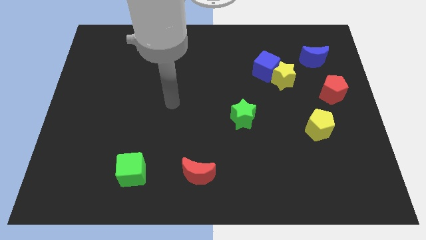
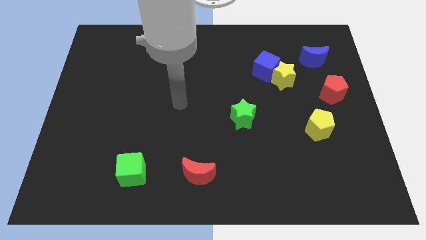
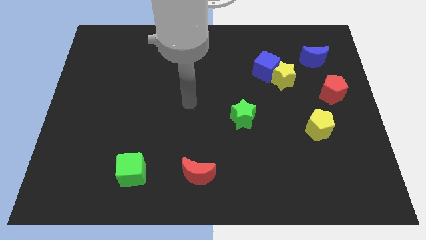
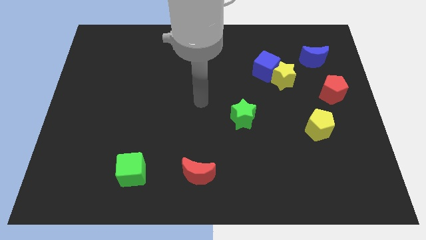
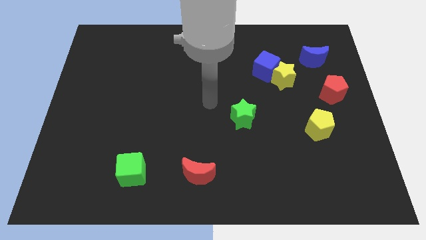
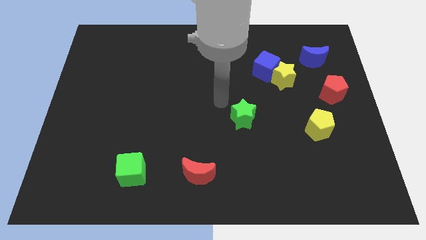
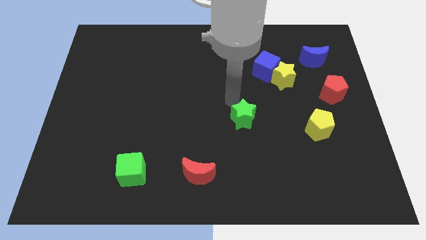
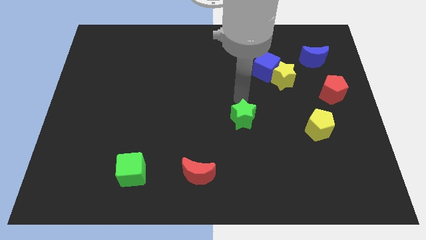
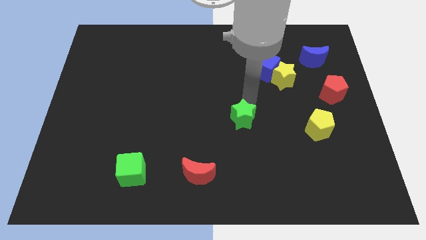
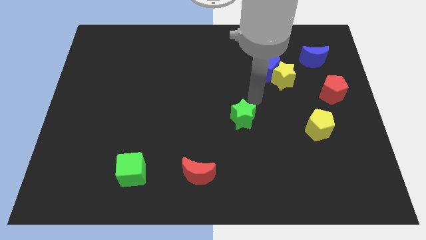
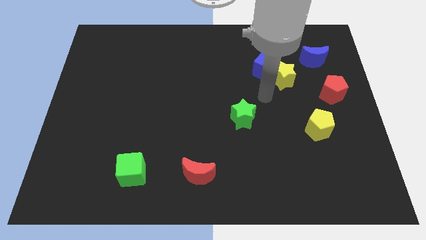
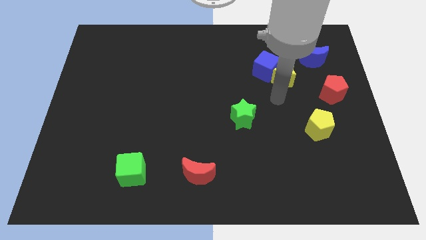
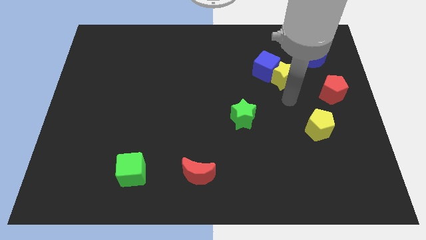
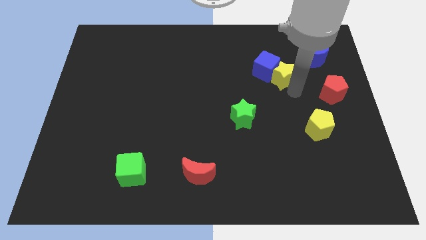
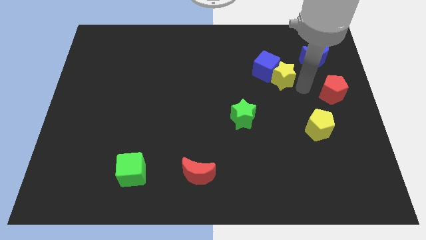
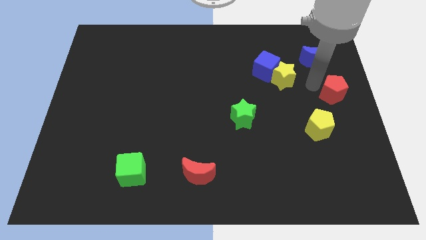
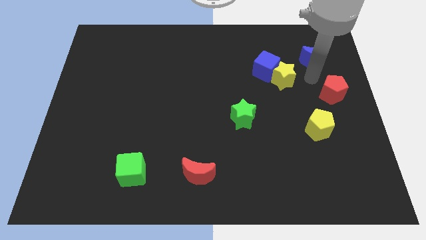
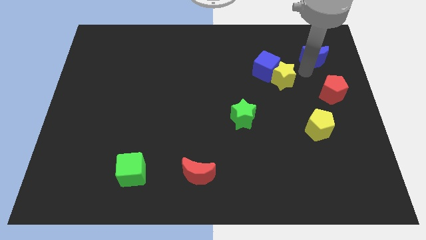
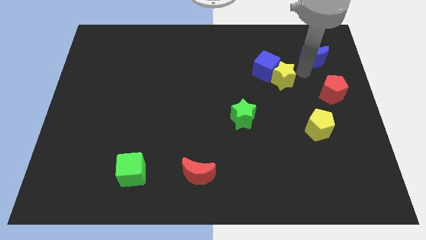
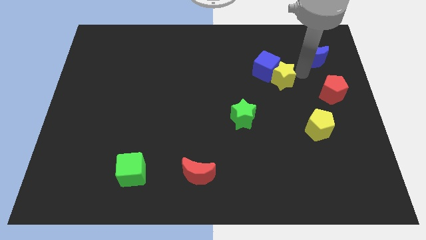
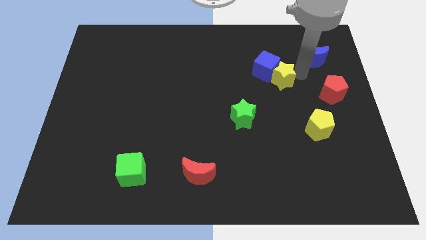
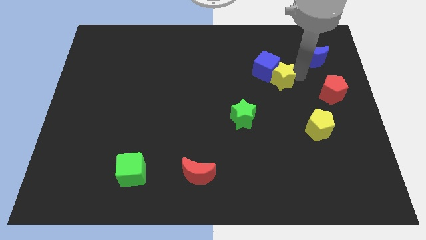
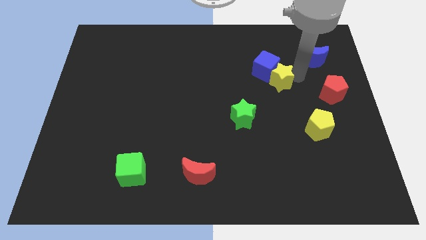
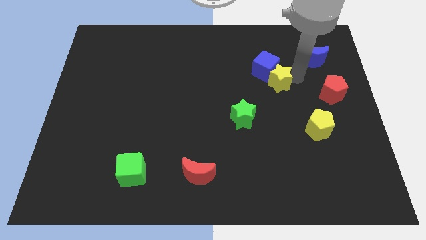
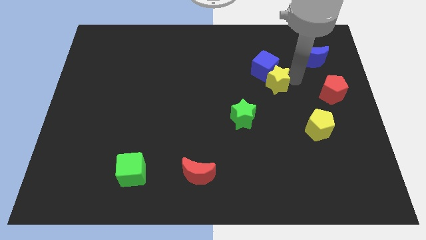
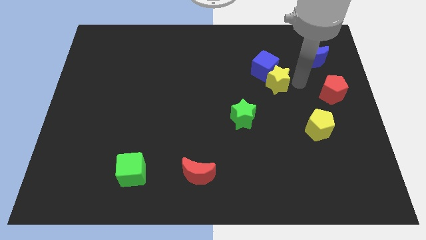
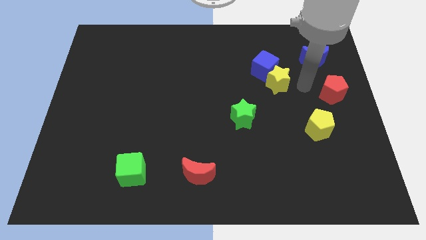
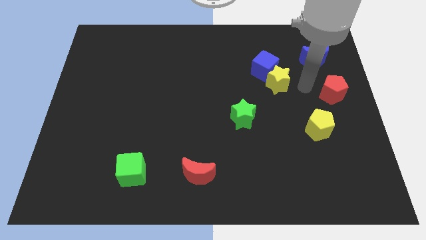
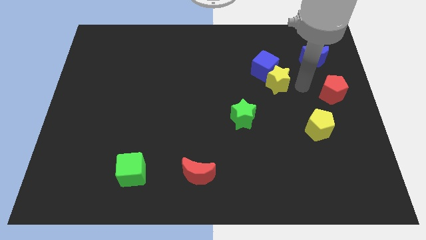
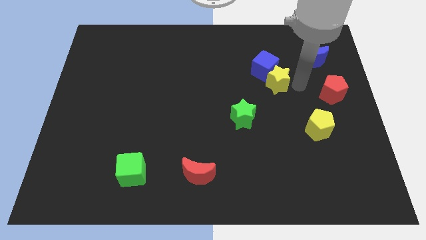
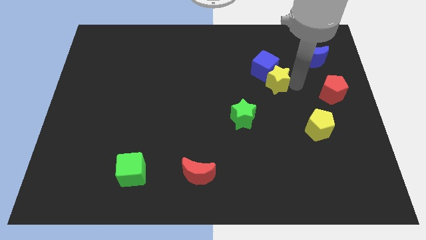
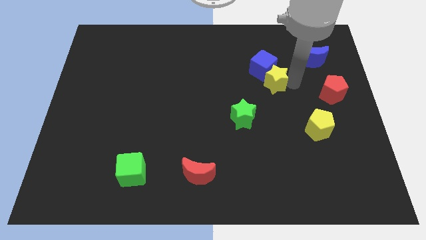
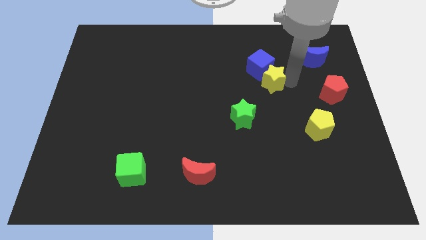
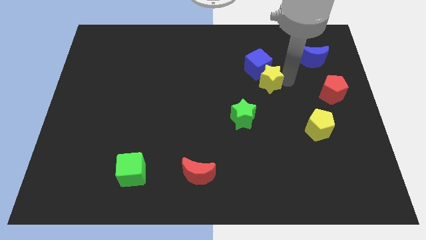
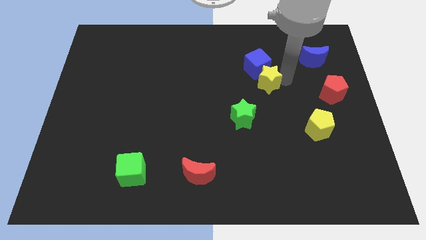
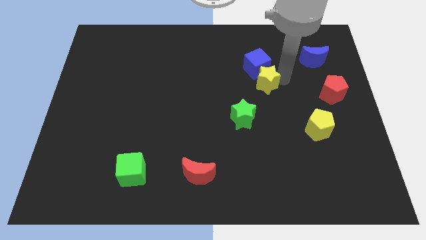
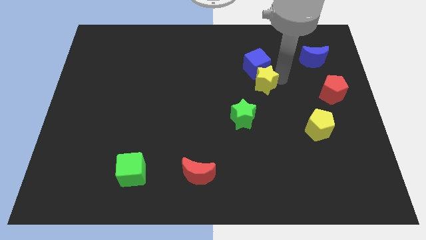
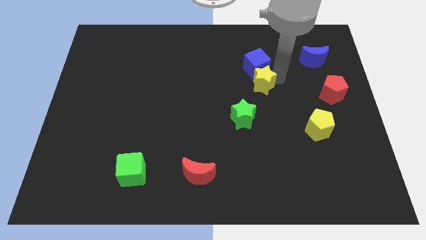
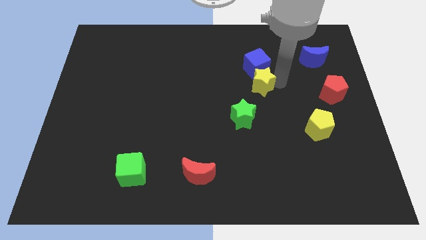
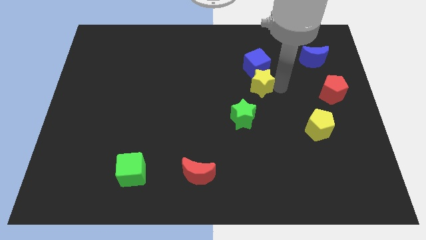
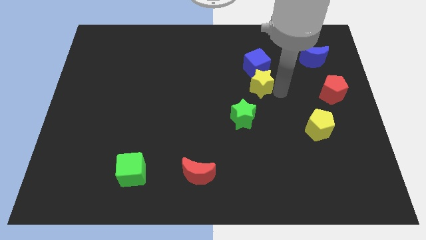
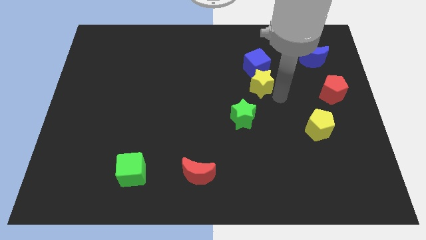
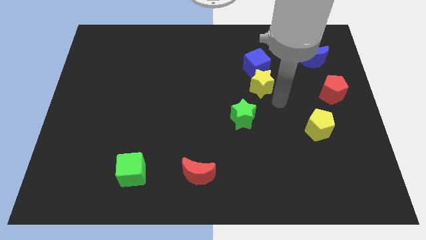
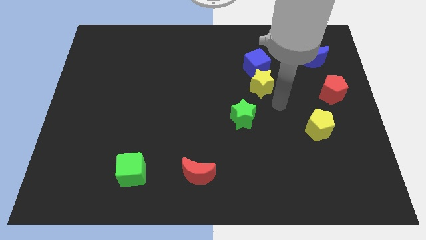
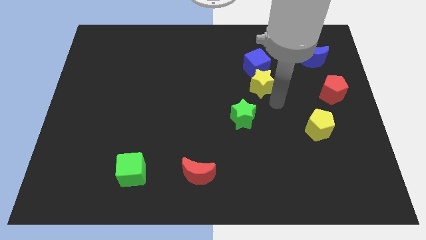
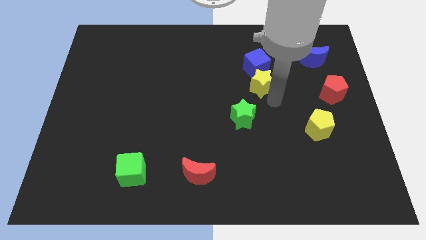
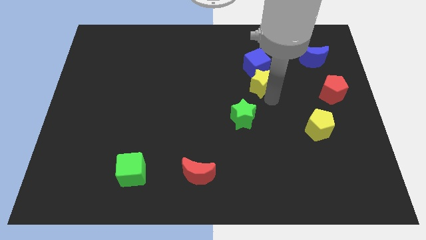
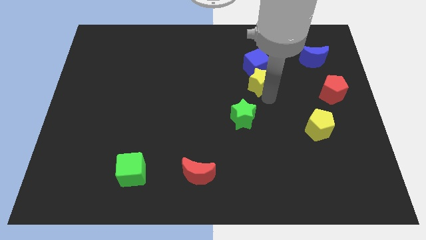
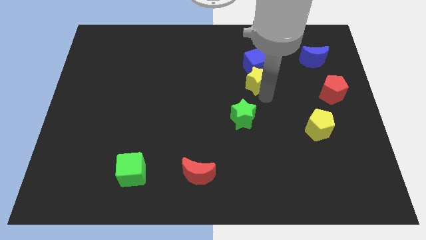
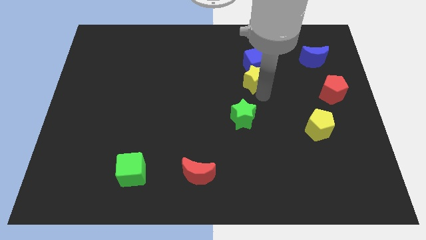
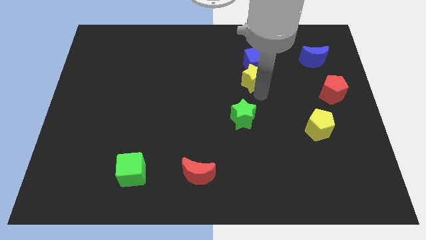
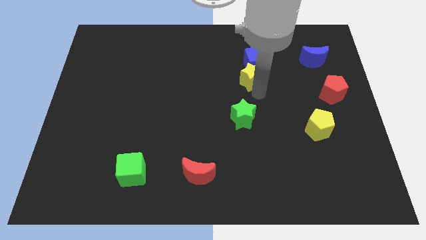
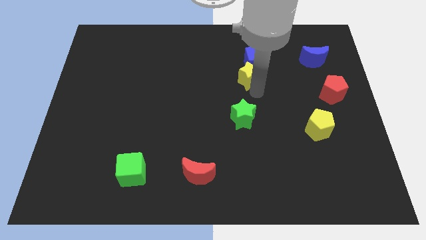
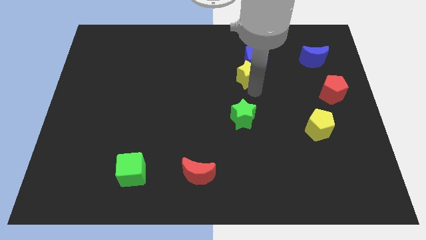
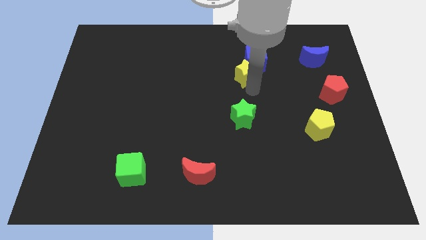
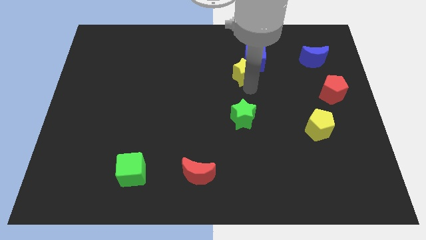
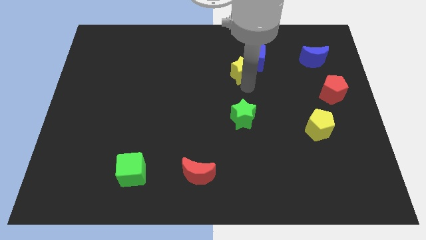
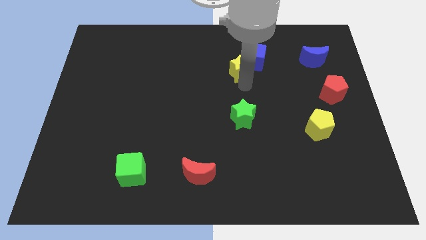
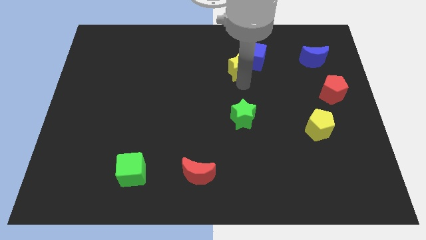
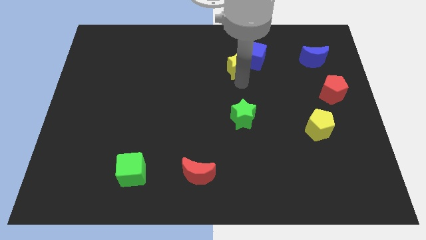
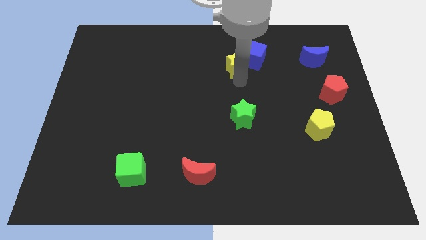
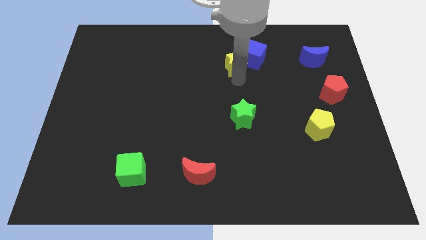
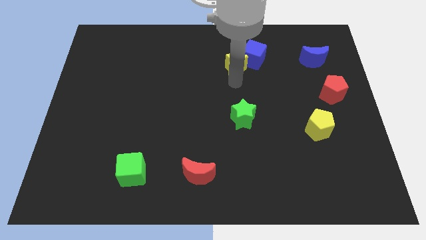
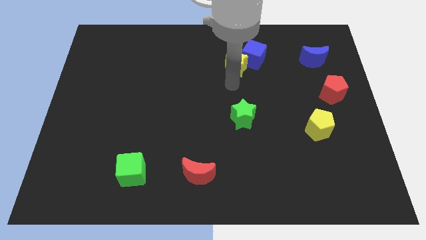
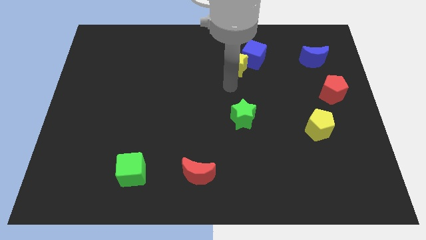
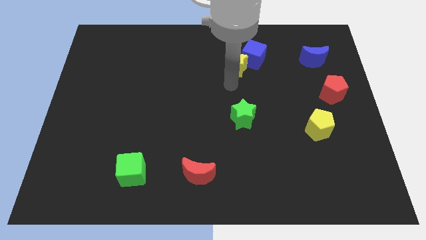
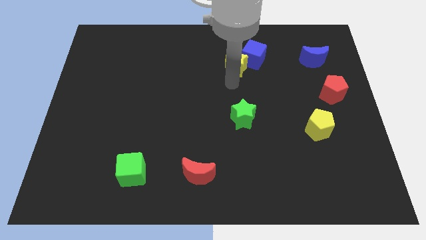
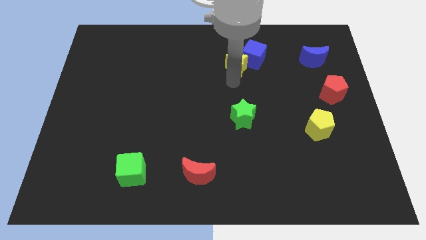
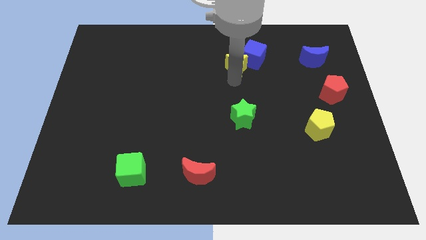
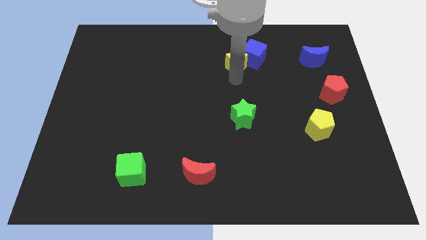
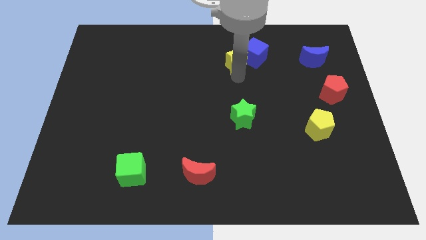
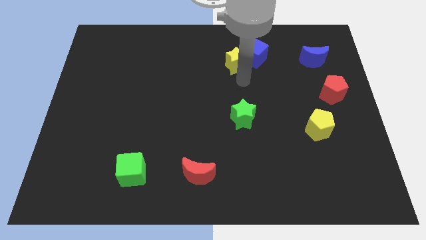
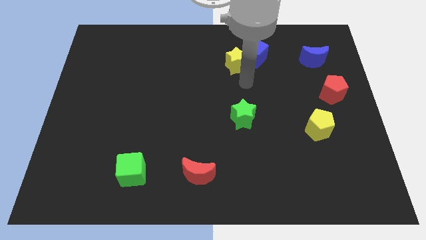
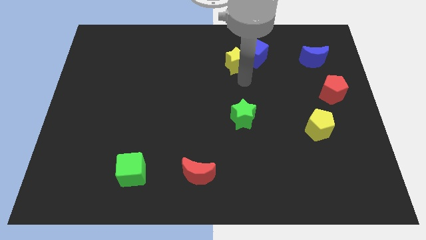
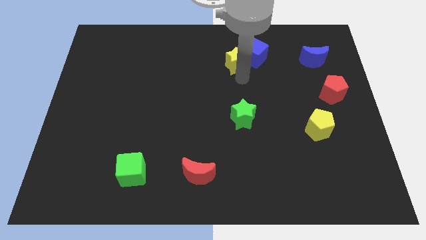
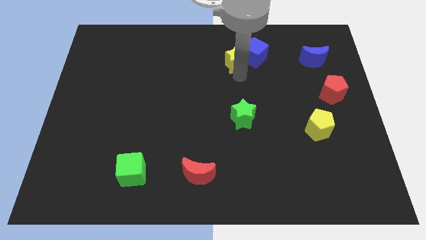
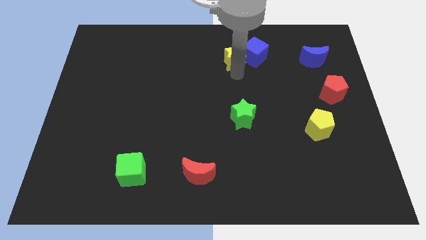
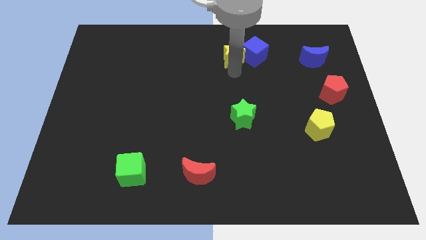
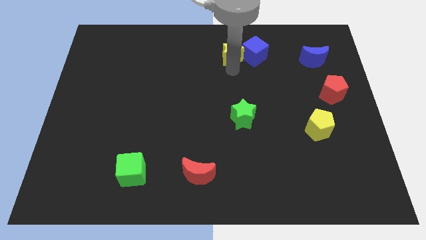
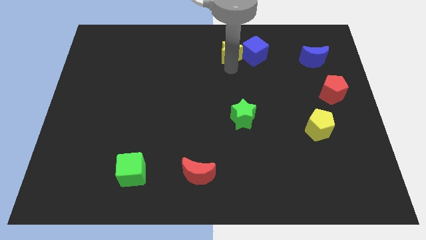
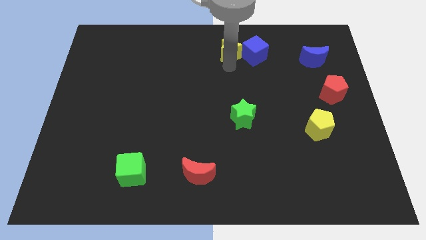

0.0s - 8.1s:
push the yellow star to the top
